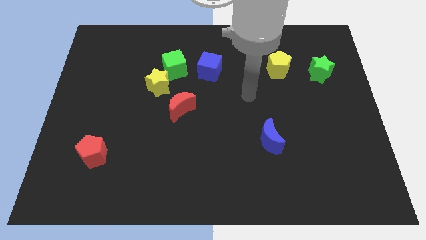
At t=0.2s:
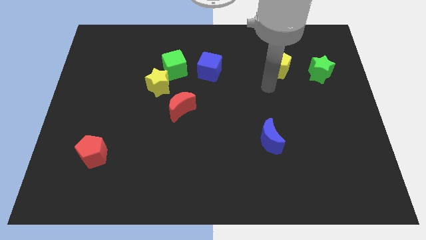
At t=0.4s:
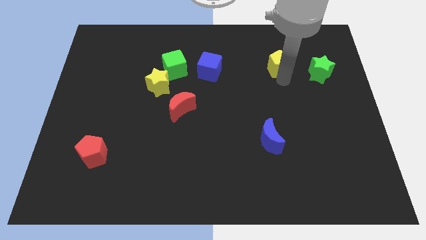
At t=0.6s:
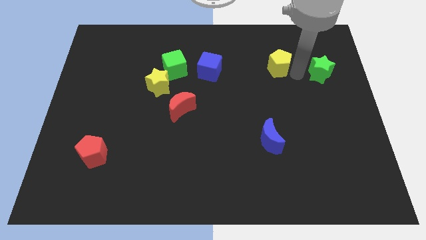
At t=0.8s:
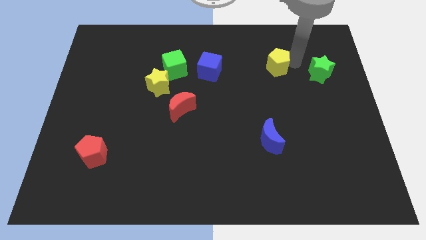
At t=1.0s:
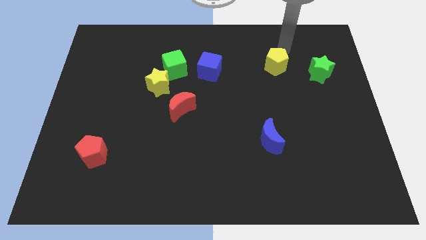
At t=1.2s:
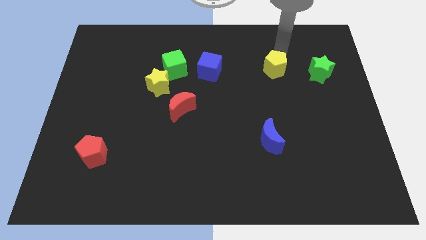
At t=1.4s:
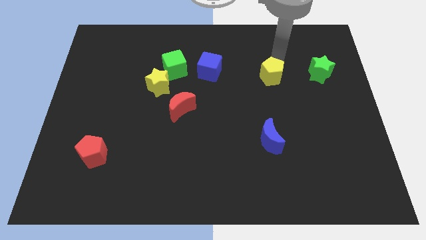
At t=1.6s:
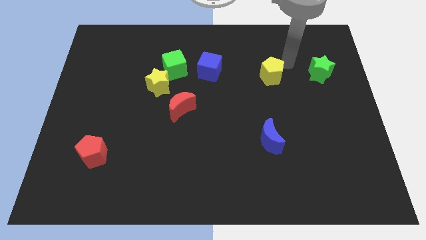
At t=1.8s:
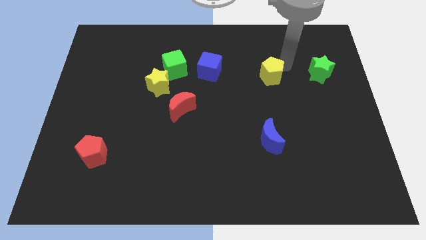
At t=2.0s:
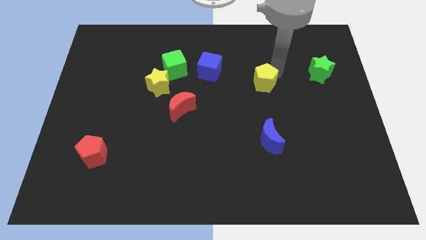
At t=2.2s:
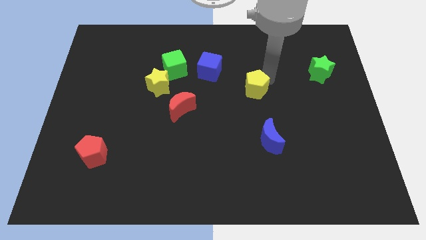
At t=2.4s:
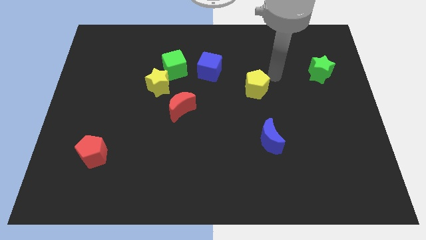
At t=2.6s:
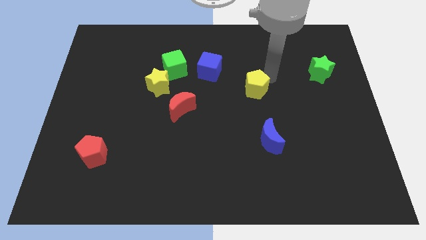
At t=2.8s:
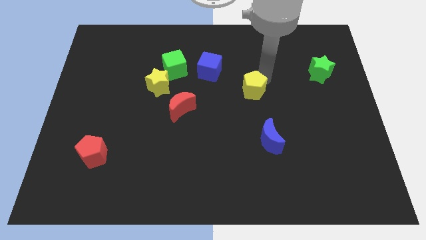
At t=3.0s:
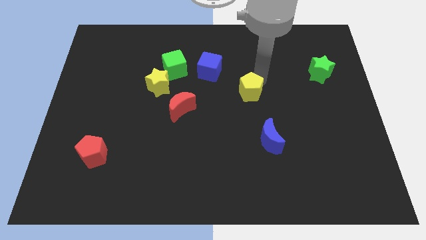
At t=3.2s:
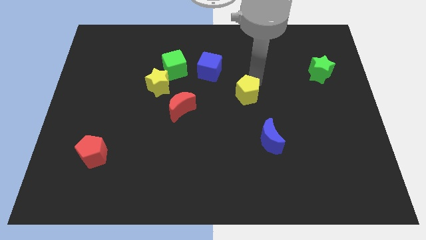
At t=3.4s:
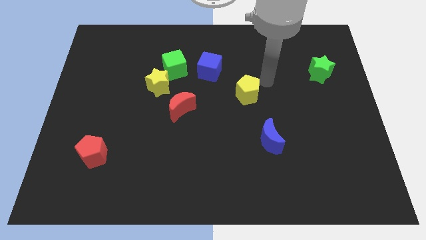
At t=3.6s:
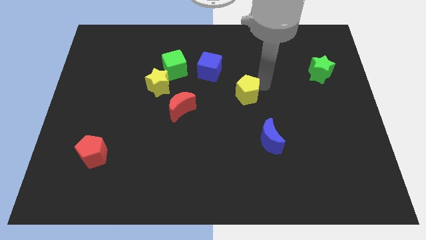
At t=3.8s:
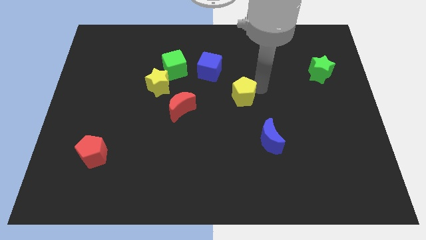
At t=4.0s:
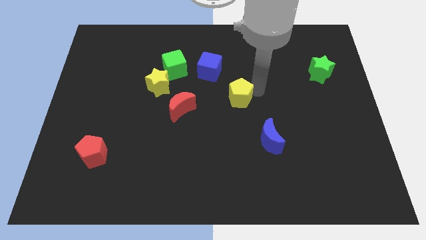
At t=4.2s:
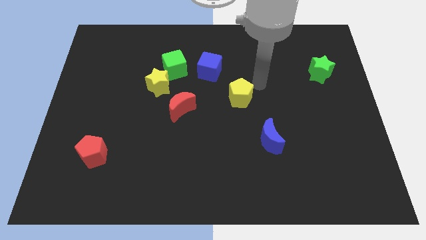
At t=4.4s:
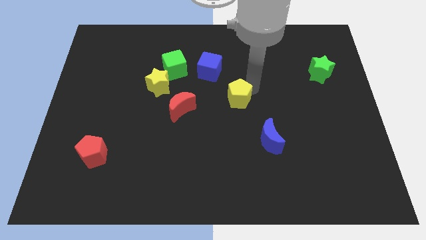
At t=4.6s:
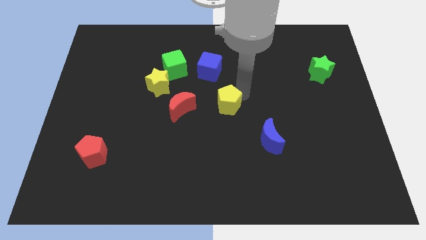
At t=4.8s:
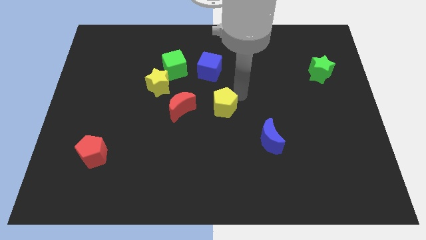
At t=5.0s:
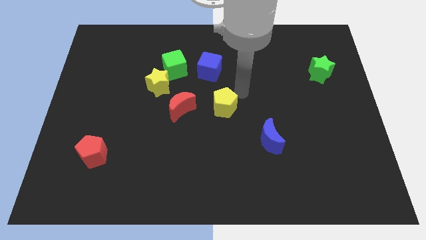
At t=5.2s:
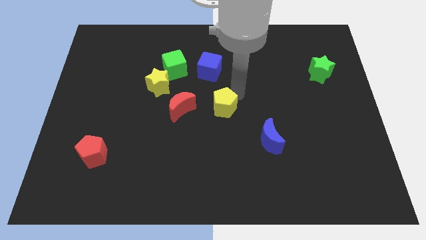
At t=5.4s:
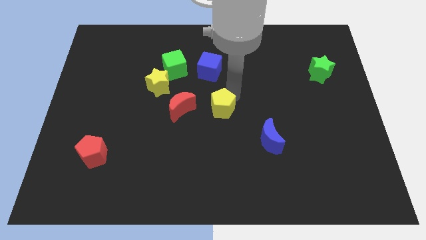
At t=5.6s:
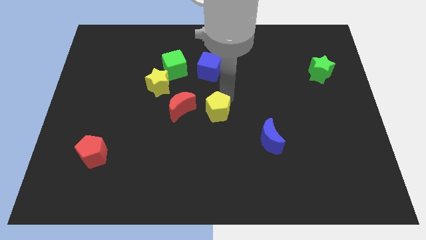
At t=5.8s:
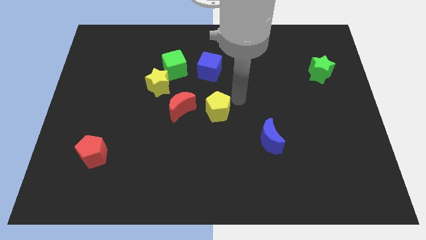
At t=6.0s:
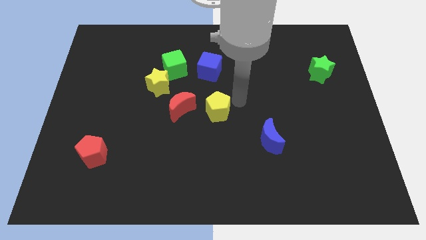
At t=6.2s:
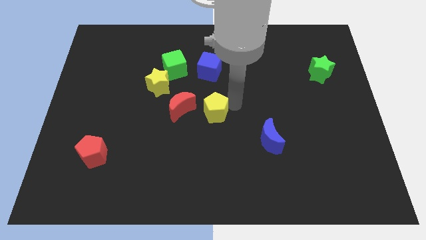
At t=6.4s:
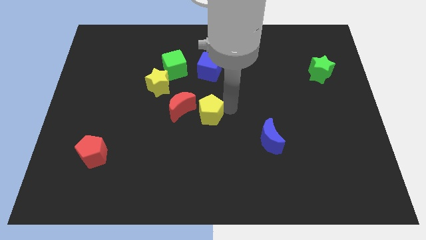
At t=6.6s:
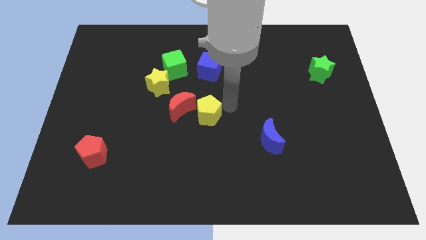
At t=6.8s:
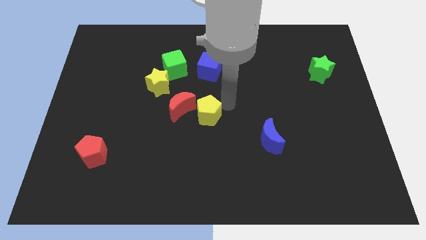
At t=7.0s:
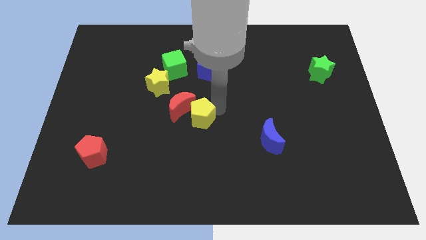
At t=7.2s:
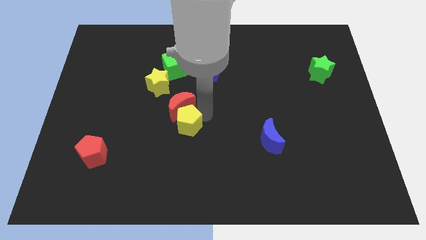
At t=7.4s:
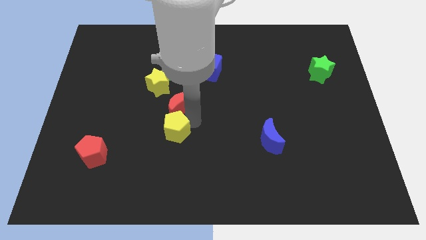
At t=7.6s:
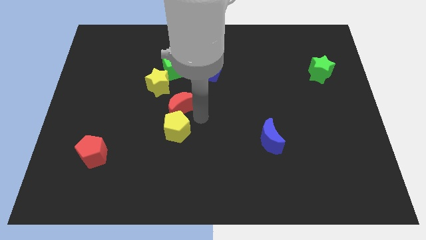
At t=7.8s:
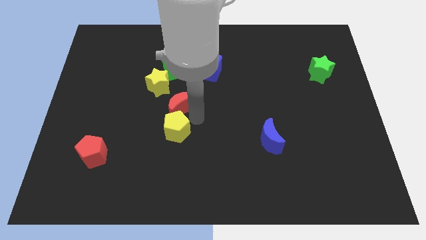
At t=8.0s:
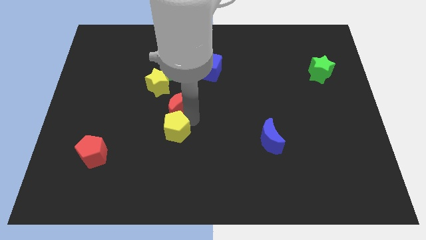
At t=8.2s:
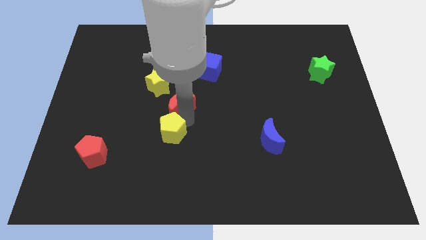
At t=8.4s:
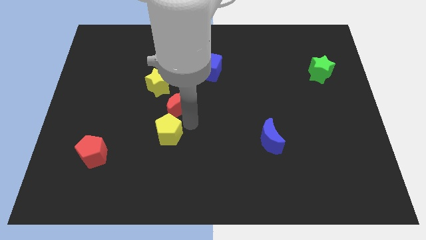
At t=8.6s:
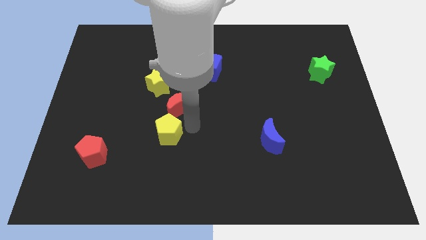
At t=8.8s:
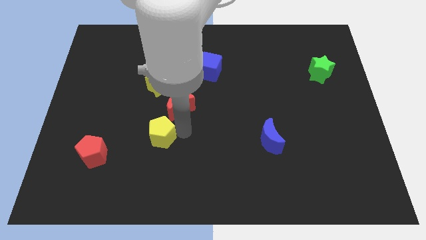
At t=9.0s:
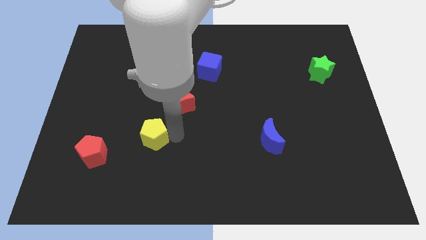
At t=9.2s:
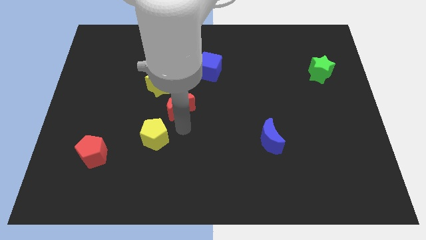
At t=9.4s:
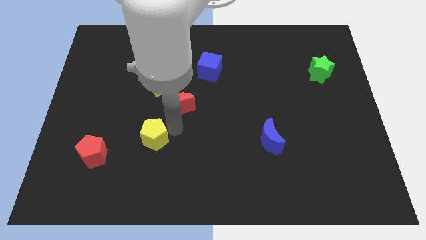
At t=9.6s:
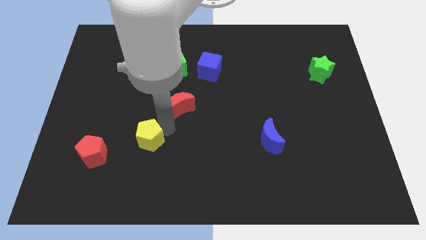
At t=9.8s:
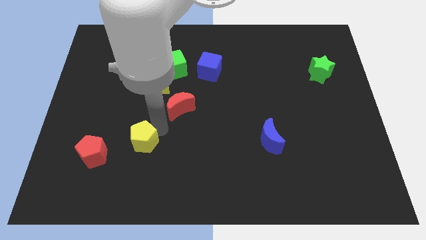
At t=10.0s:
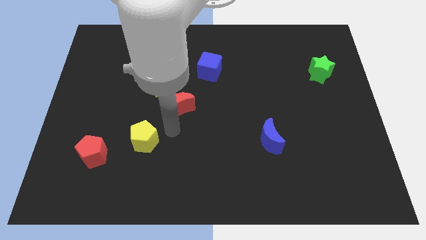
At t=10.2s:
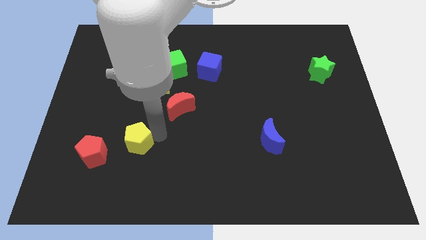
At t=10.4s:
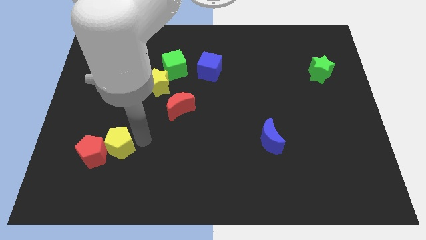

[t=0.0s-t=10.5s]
put the yellow pentagon next to the red pentagon

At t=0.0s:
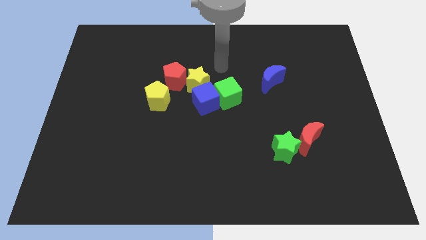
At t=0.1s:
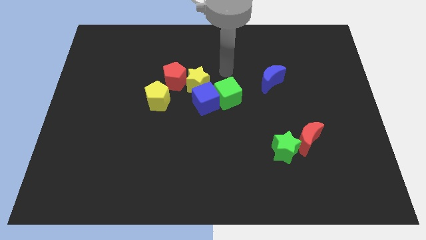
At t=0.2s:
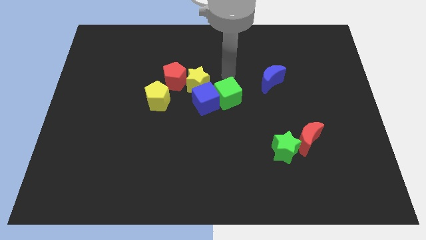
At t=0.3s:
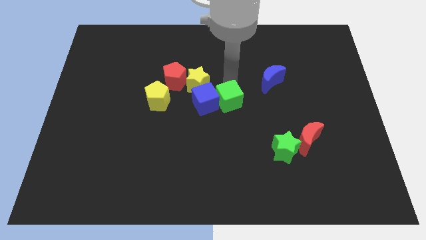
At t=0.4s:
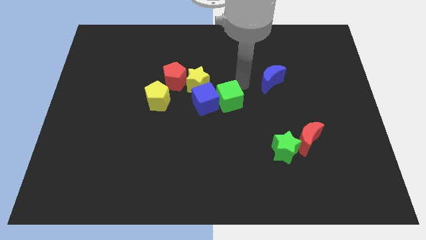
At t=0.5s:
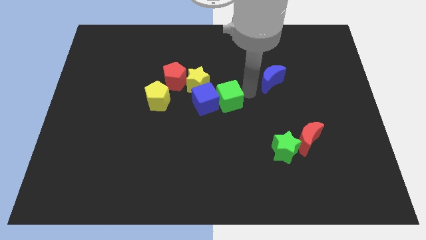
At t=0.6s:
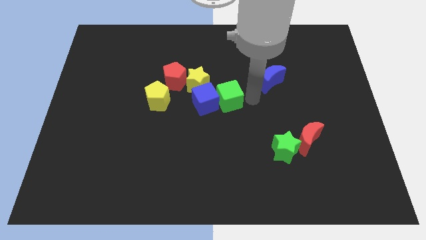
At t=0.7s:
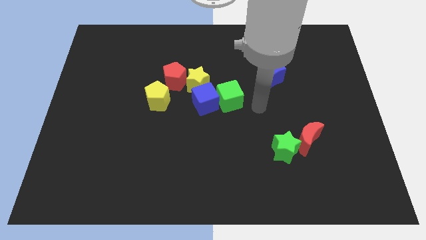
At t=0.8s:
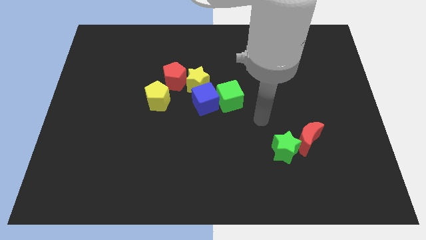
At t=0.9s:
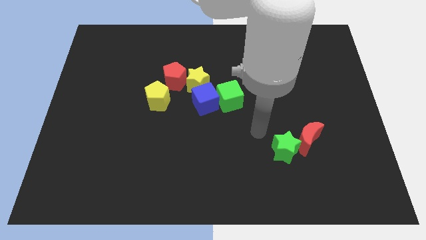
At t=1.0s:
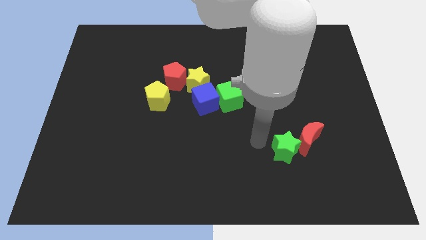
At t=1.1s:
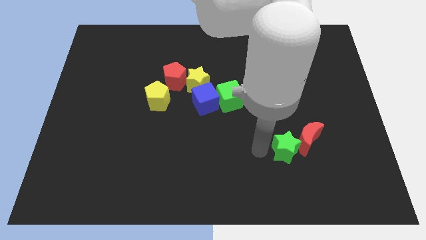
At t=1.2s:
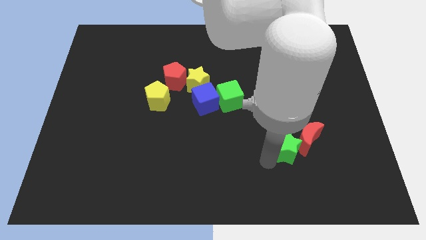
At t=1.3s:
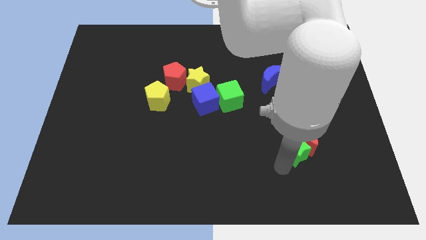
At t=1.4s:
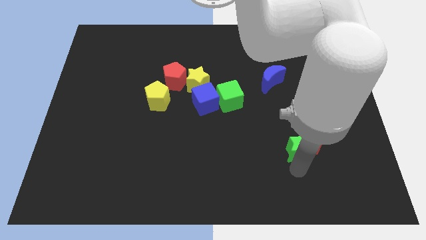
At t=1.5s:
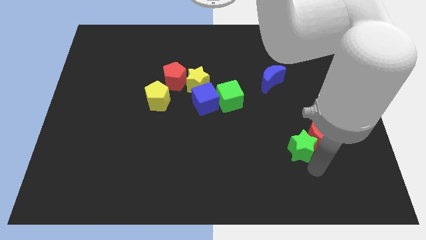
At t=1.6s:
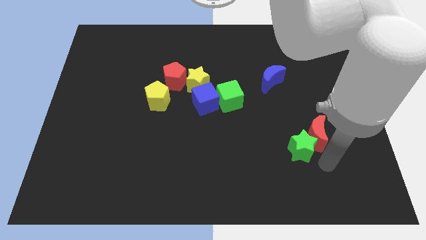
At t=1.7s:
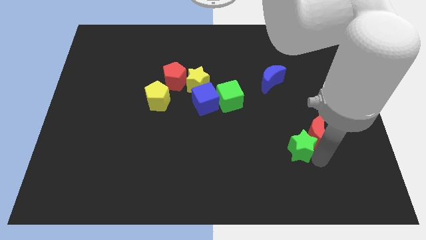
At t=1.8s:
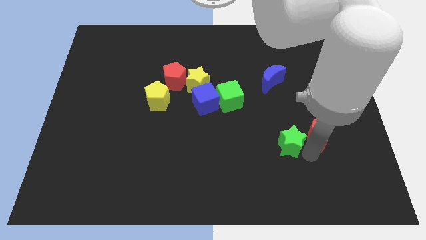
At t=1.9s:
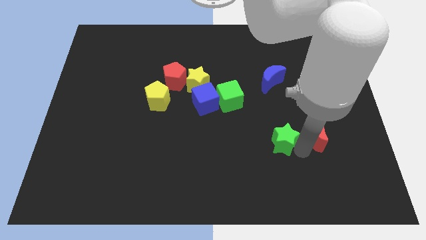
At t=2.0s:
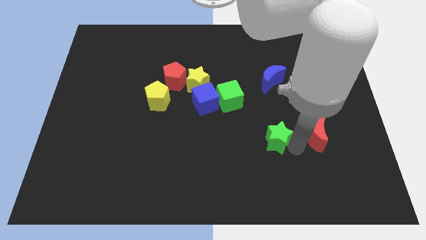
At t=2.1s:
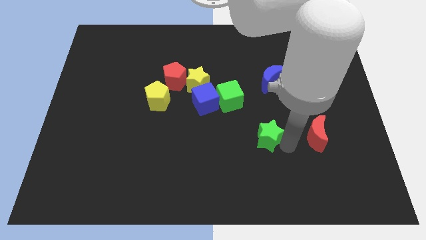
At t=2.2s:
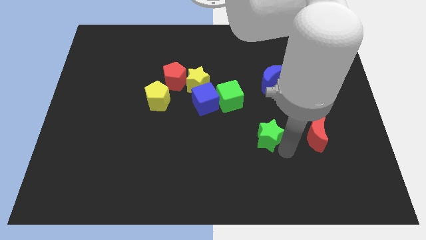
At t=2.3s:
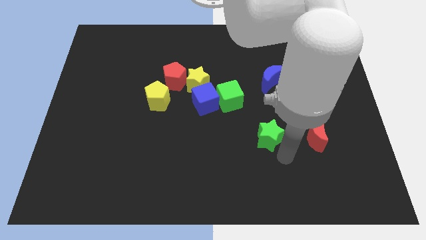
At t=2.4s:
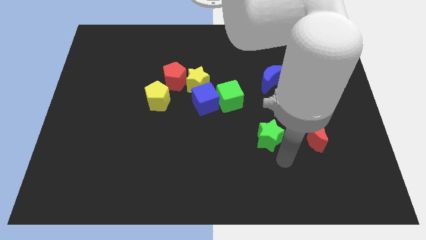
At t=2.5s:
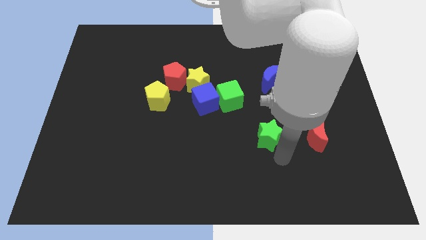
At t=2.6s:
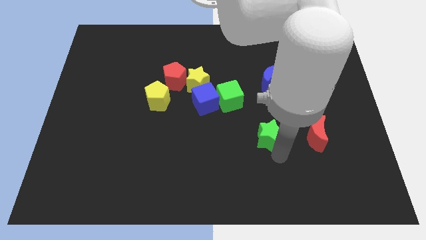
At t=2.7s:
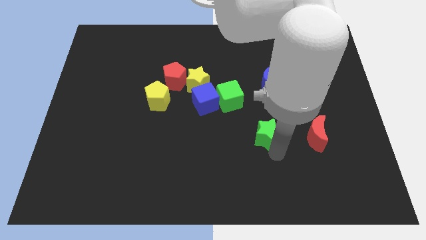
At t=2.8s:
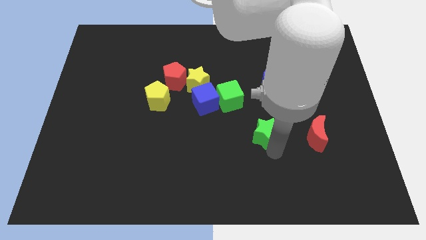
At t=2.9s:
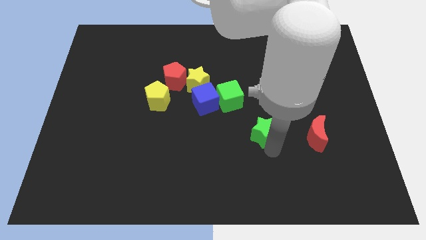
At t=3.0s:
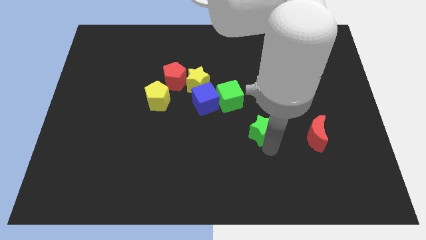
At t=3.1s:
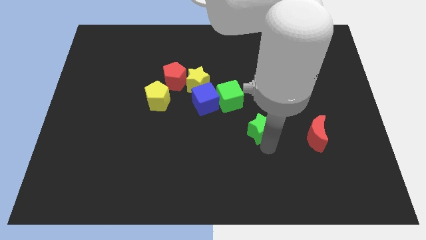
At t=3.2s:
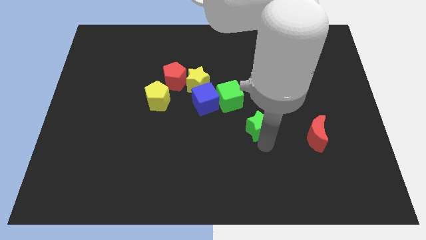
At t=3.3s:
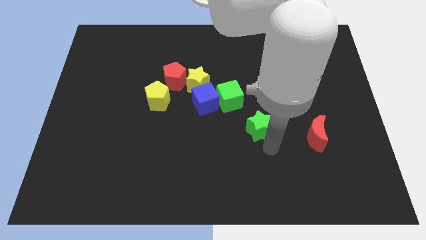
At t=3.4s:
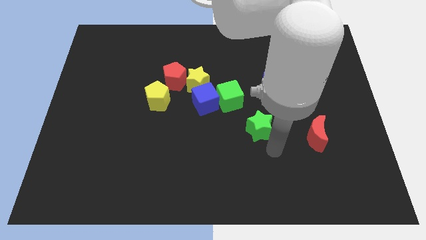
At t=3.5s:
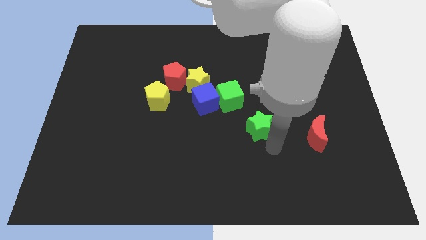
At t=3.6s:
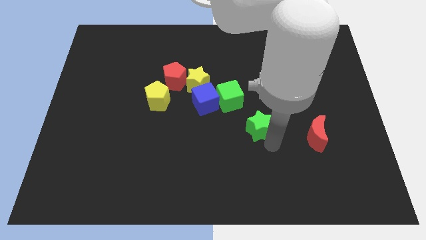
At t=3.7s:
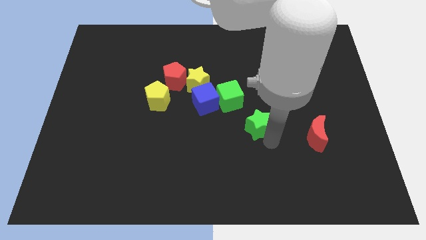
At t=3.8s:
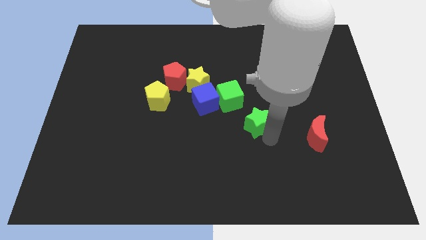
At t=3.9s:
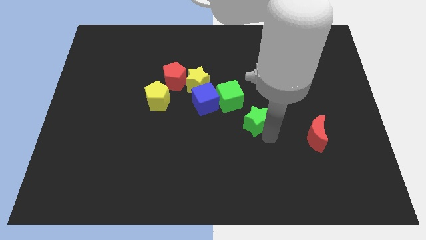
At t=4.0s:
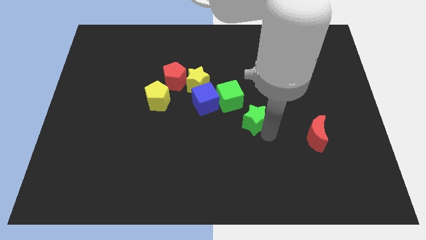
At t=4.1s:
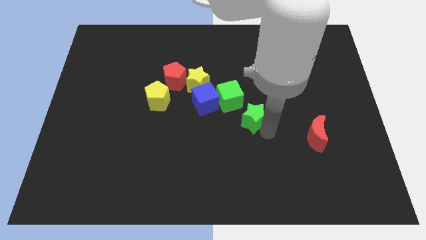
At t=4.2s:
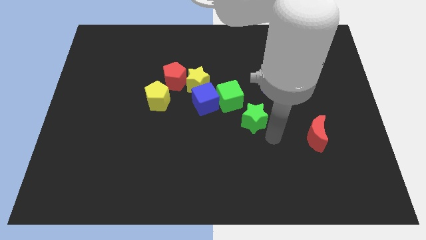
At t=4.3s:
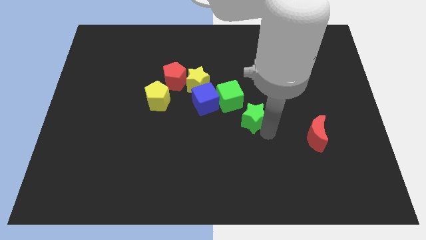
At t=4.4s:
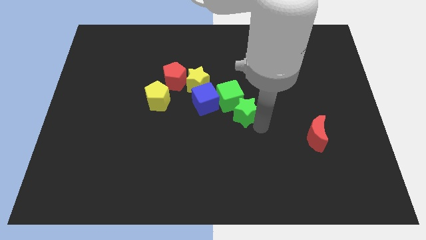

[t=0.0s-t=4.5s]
put the green star to the green cube
